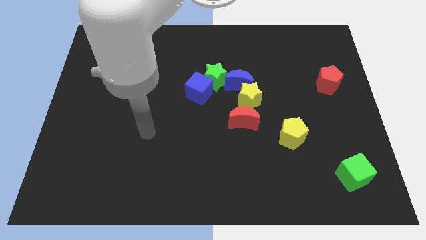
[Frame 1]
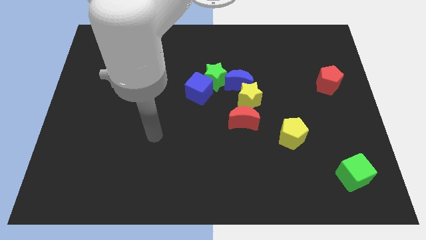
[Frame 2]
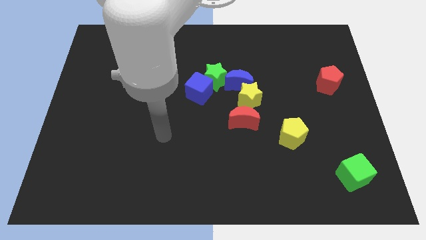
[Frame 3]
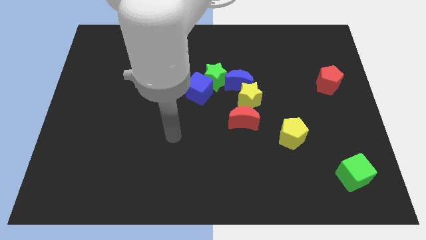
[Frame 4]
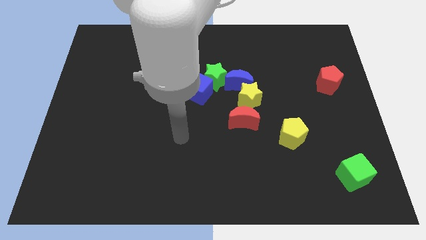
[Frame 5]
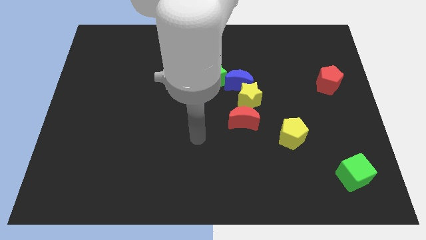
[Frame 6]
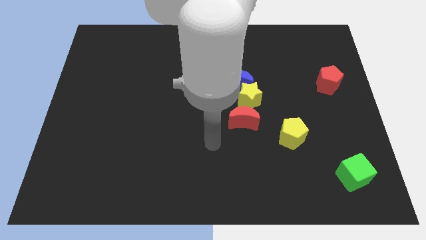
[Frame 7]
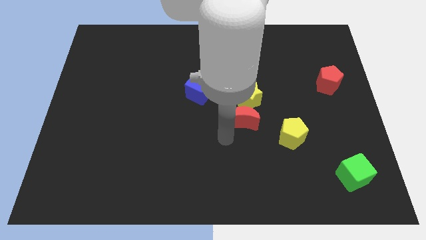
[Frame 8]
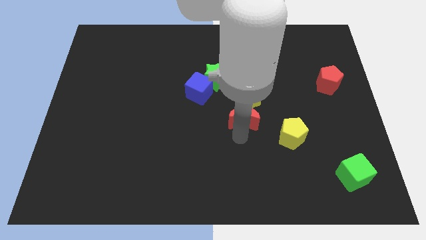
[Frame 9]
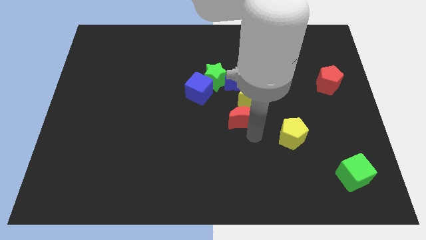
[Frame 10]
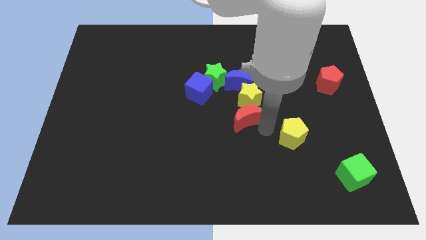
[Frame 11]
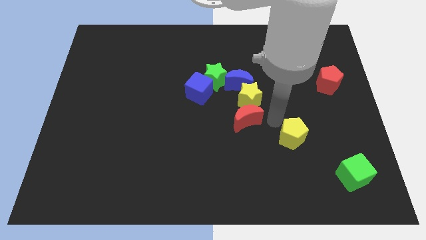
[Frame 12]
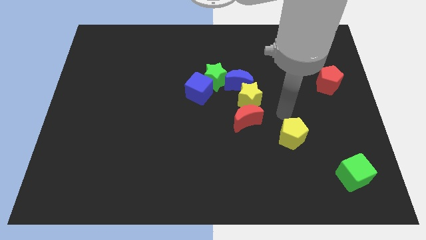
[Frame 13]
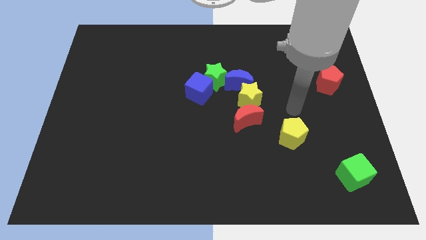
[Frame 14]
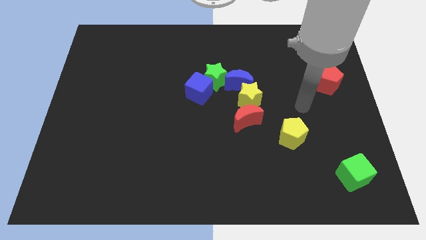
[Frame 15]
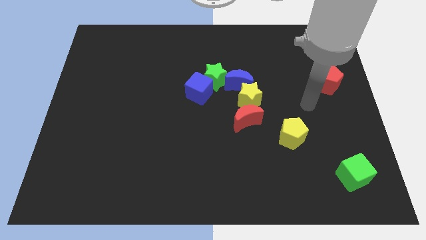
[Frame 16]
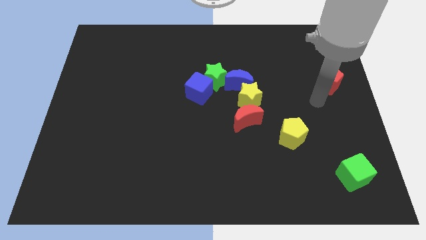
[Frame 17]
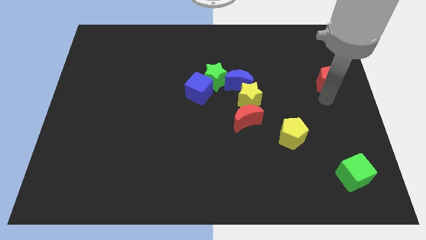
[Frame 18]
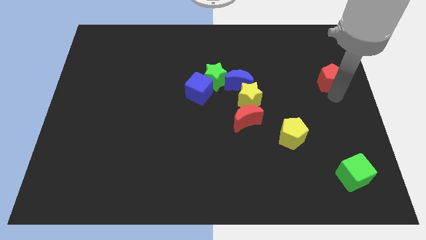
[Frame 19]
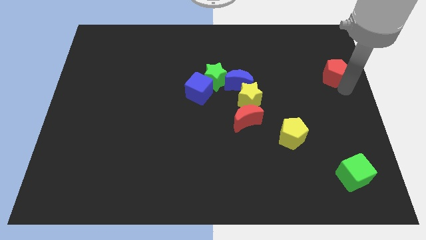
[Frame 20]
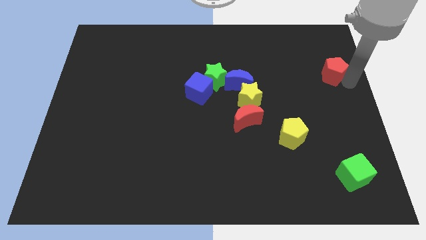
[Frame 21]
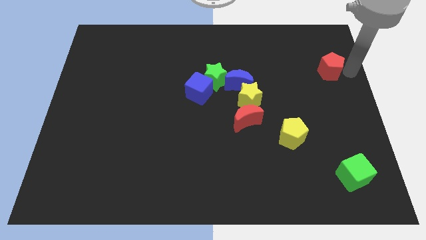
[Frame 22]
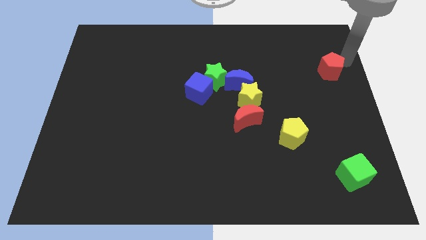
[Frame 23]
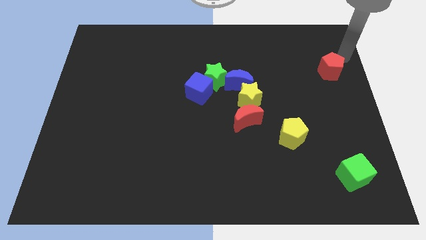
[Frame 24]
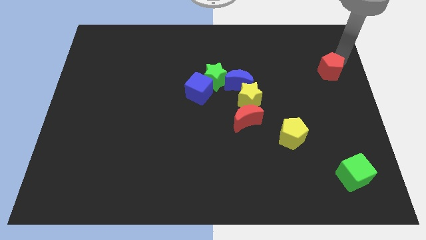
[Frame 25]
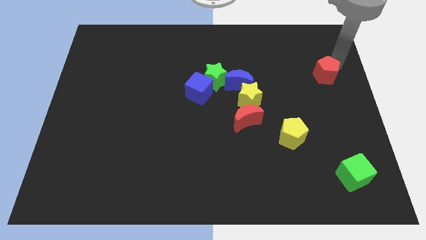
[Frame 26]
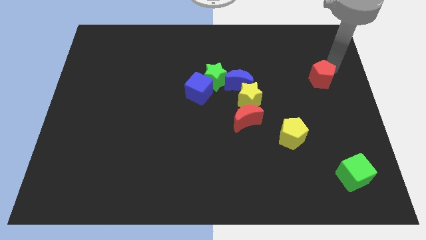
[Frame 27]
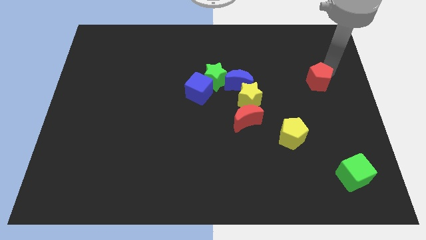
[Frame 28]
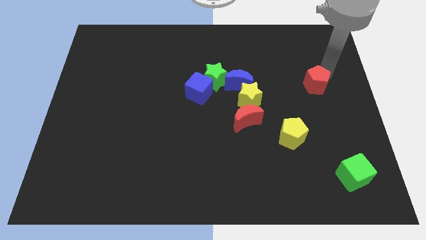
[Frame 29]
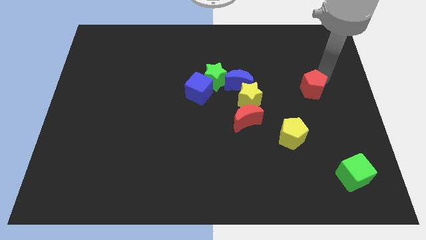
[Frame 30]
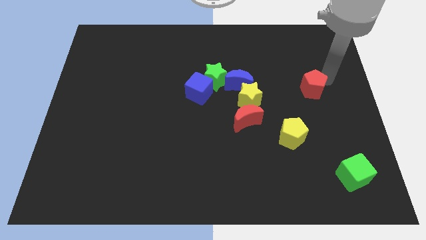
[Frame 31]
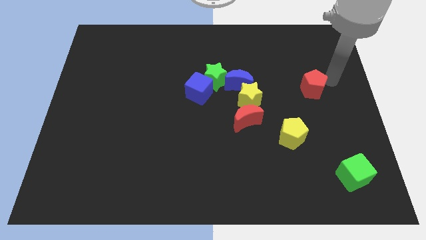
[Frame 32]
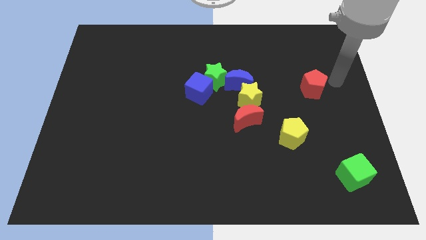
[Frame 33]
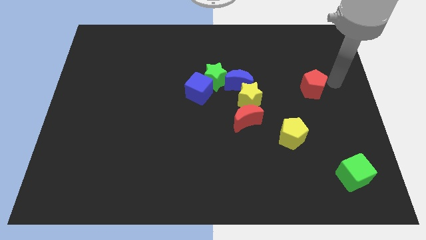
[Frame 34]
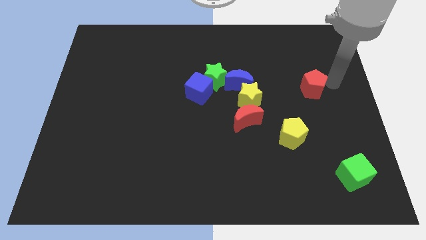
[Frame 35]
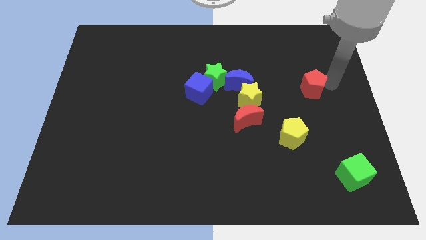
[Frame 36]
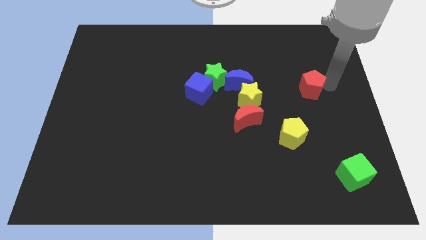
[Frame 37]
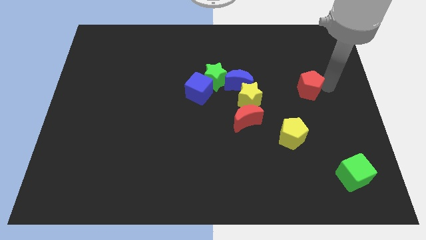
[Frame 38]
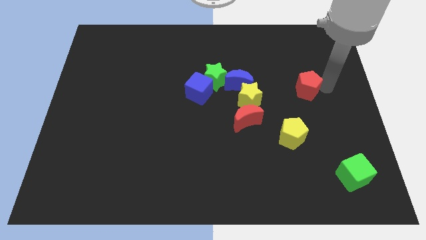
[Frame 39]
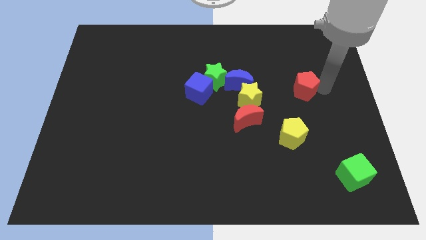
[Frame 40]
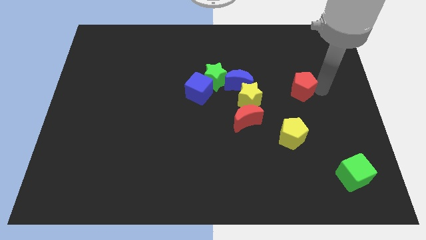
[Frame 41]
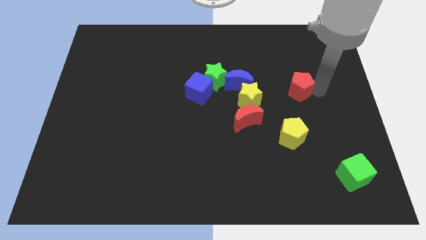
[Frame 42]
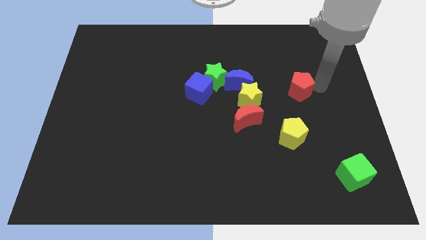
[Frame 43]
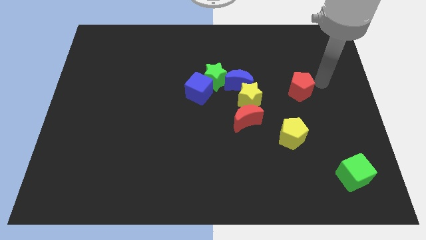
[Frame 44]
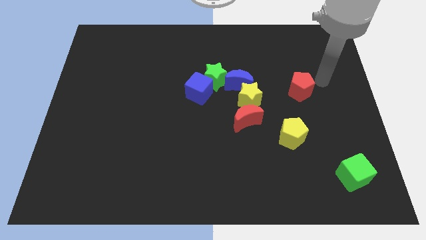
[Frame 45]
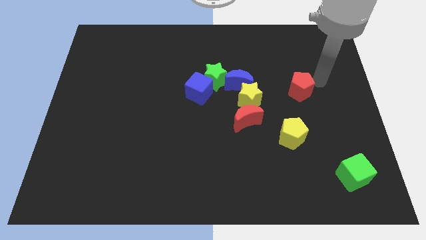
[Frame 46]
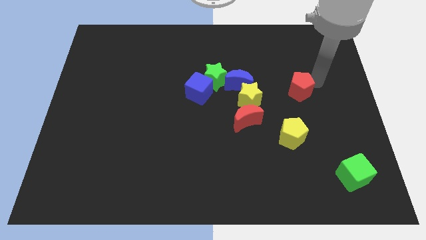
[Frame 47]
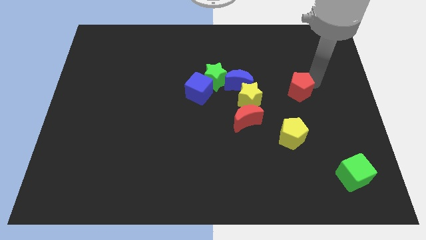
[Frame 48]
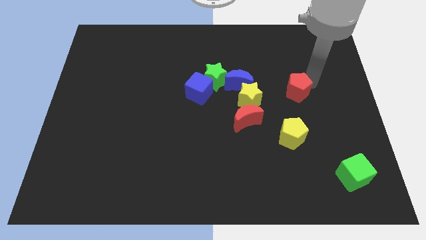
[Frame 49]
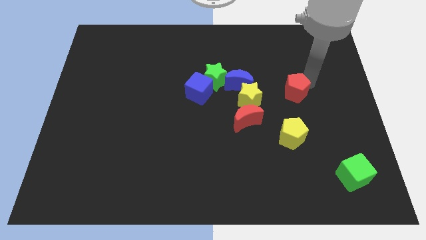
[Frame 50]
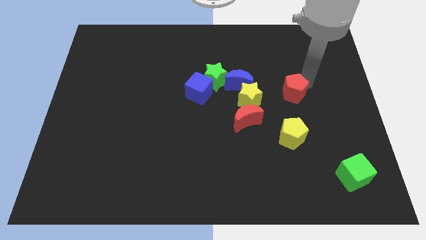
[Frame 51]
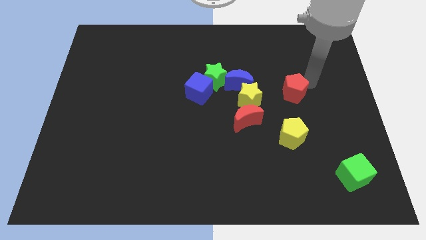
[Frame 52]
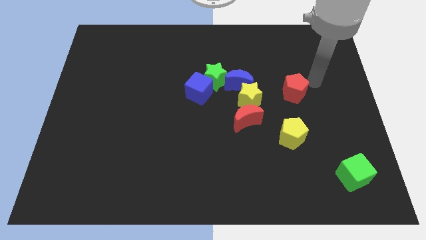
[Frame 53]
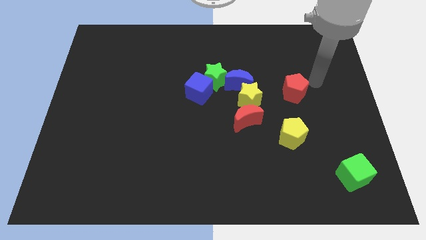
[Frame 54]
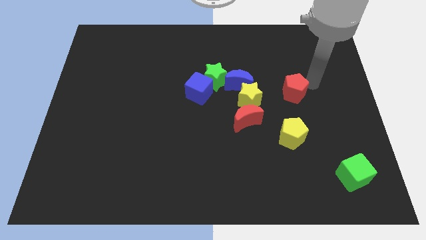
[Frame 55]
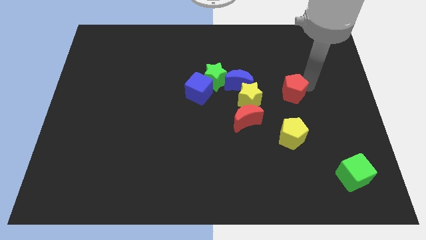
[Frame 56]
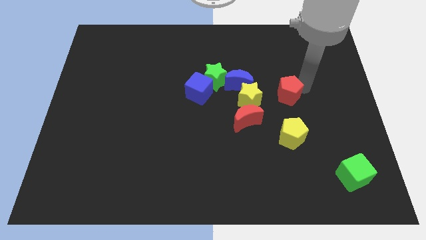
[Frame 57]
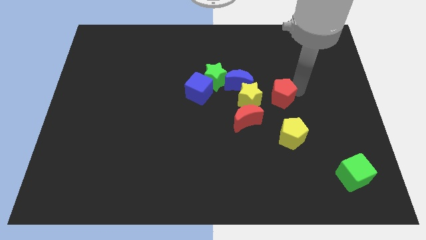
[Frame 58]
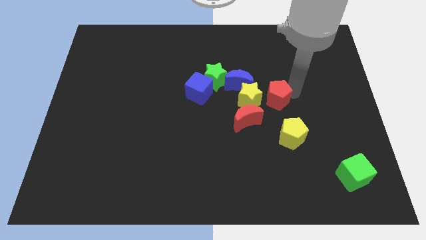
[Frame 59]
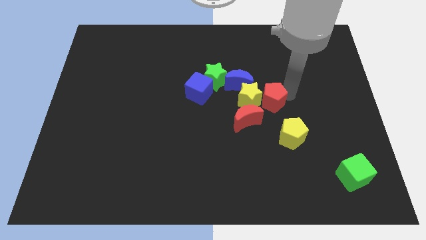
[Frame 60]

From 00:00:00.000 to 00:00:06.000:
slide the red pentagon towards the yellow star

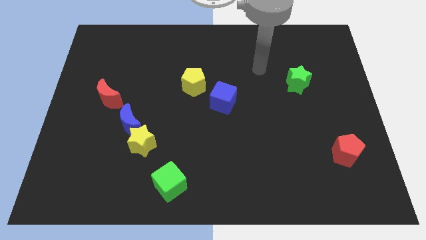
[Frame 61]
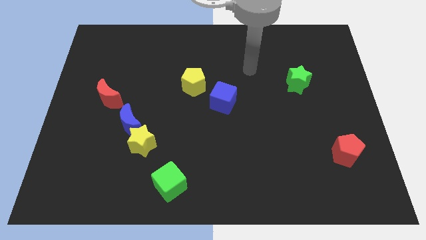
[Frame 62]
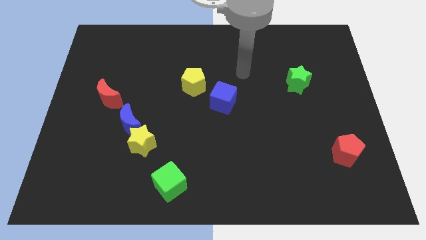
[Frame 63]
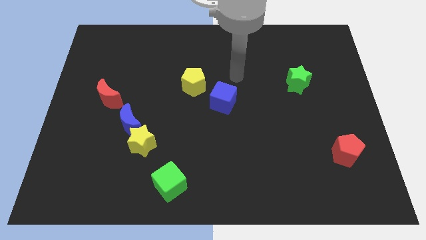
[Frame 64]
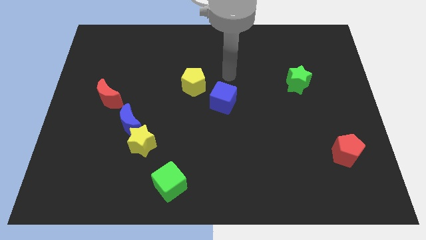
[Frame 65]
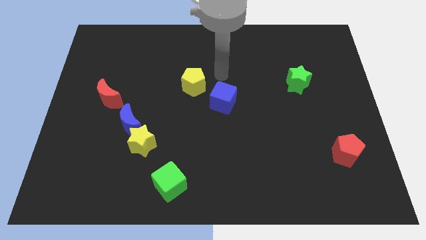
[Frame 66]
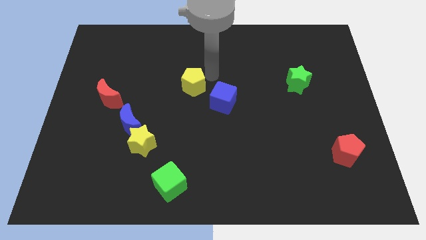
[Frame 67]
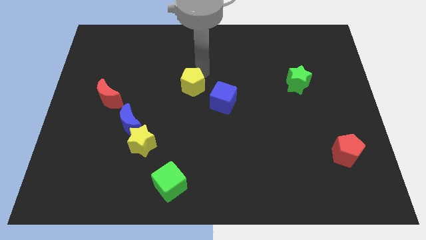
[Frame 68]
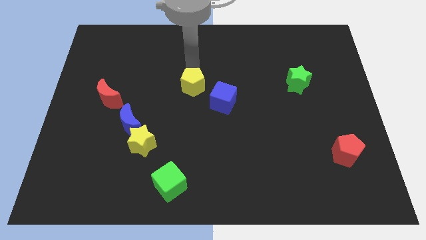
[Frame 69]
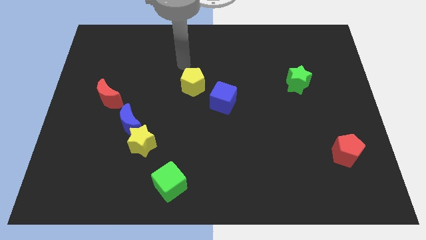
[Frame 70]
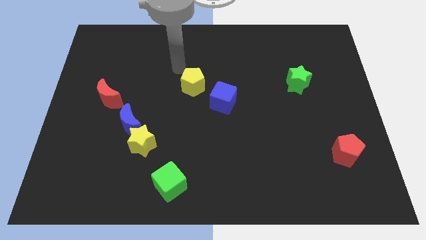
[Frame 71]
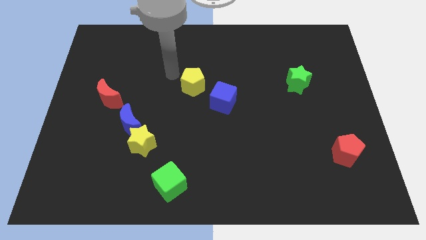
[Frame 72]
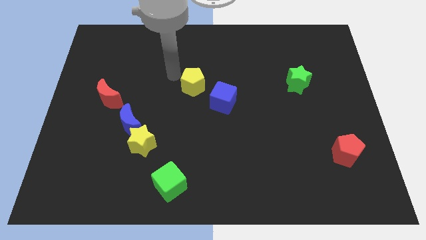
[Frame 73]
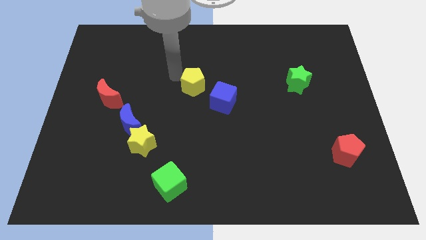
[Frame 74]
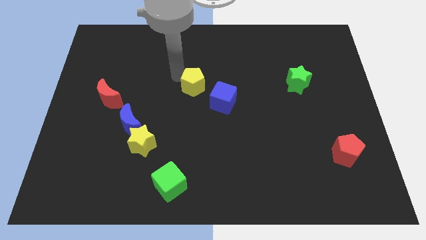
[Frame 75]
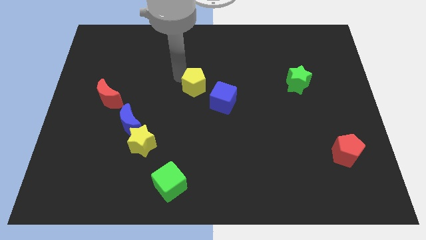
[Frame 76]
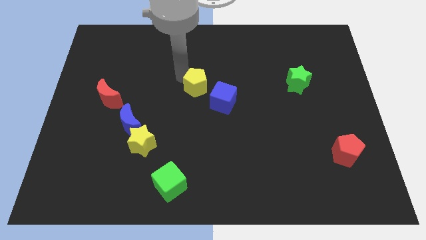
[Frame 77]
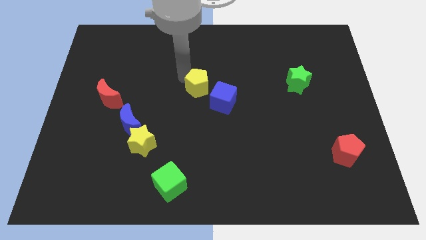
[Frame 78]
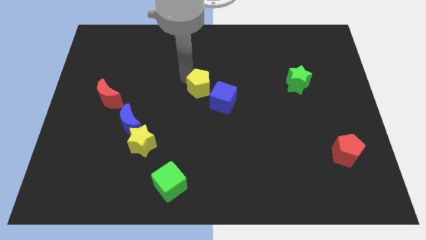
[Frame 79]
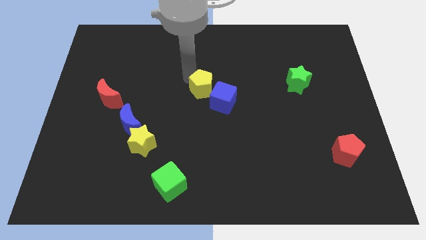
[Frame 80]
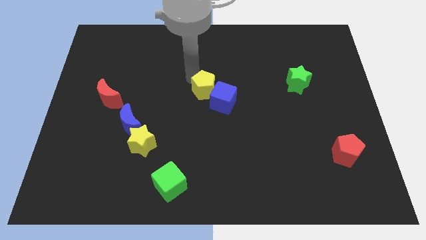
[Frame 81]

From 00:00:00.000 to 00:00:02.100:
put the yellow pentagon towards the blue cube
